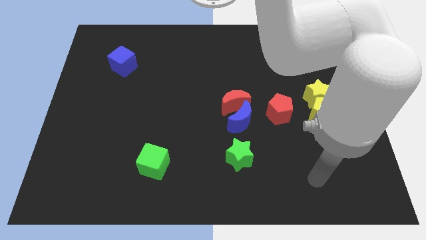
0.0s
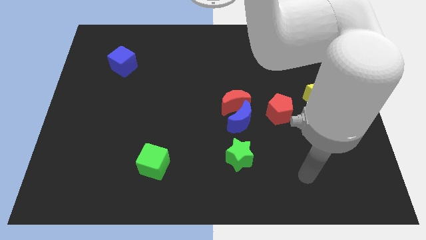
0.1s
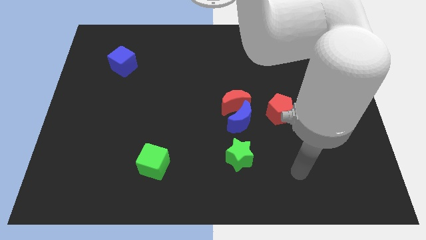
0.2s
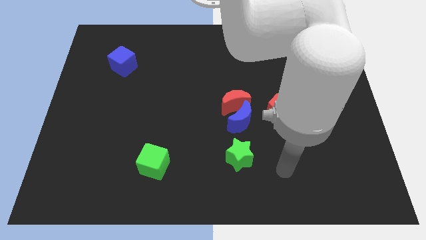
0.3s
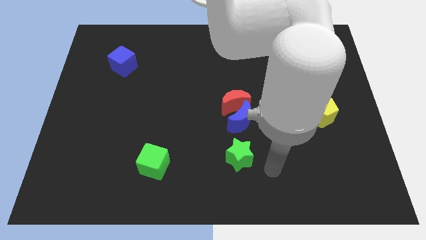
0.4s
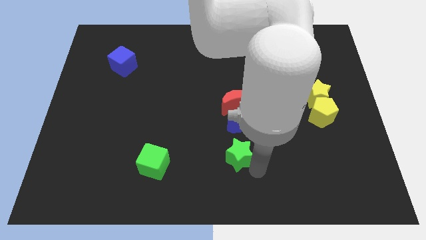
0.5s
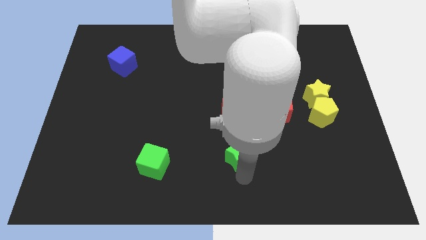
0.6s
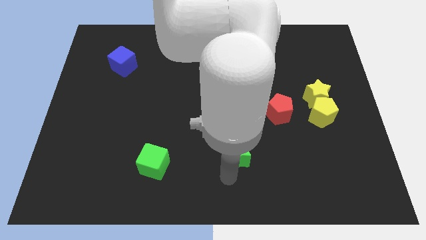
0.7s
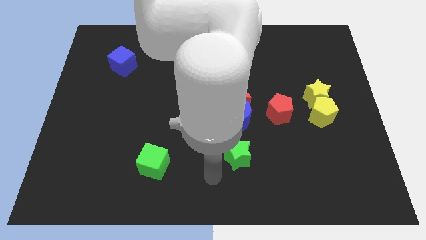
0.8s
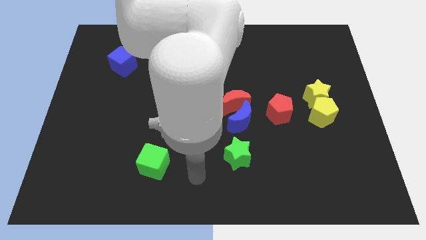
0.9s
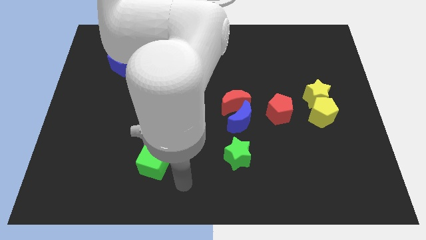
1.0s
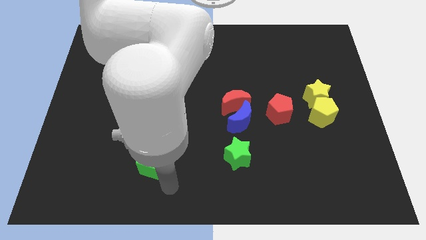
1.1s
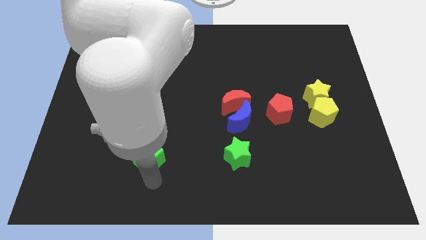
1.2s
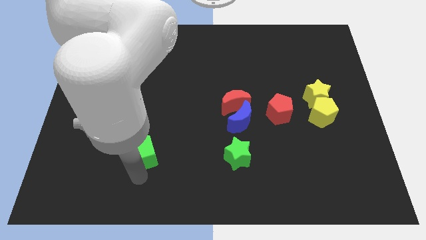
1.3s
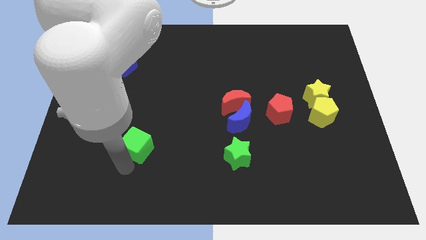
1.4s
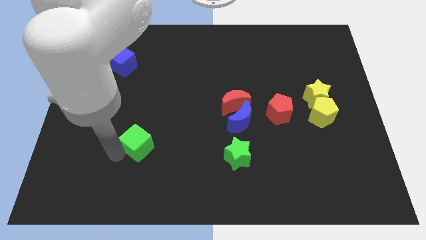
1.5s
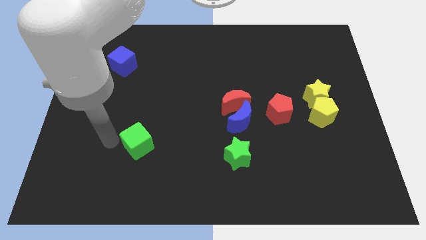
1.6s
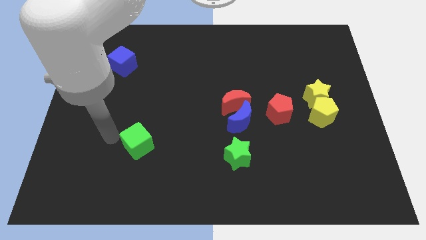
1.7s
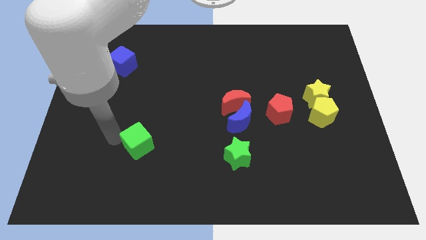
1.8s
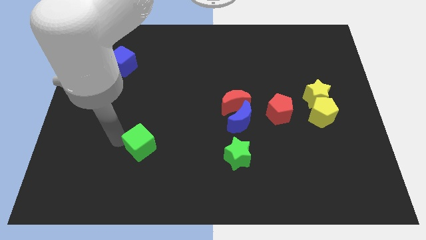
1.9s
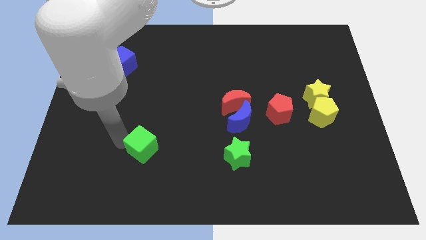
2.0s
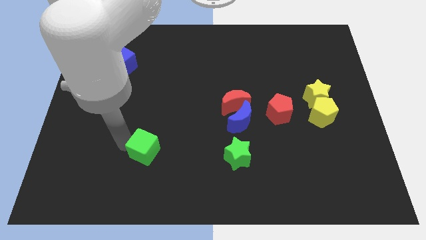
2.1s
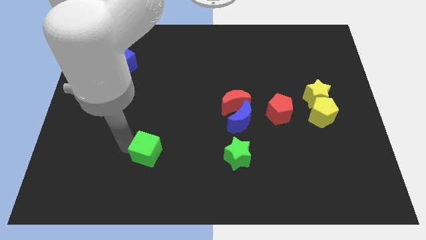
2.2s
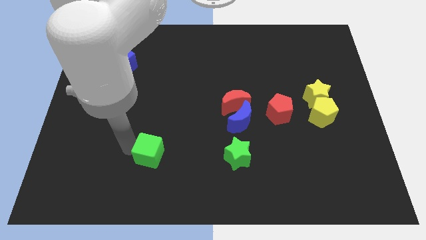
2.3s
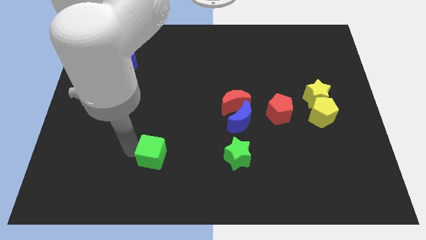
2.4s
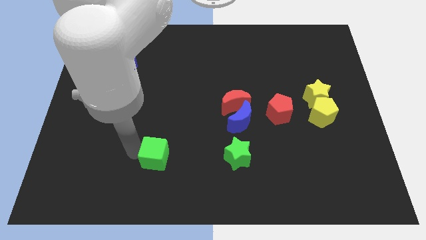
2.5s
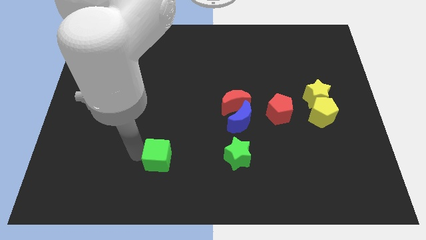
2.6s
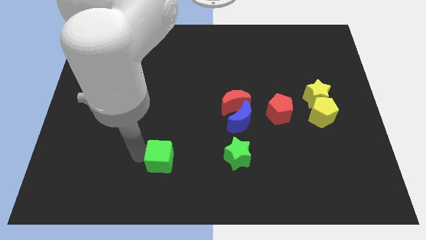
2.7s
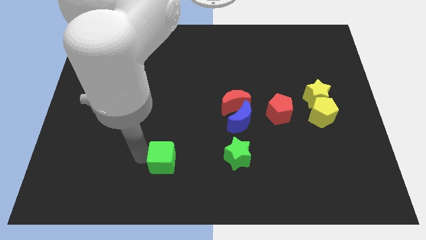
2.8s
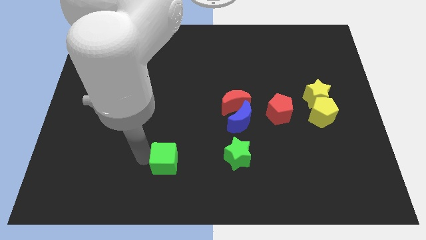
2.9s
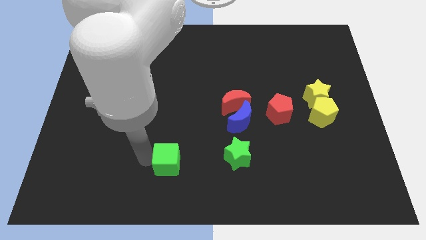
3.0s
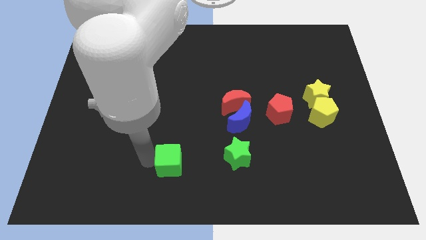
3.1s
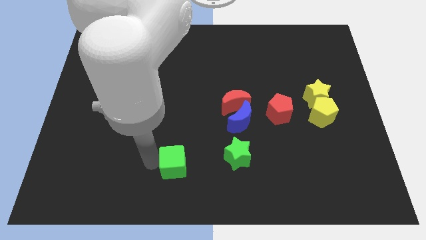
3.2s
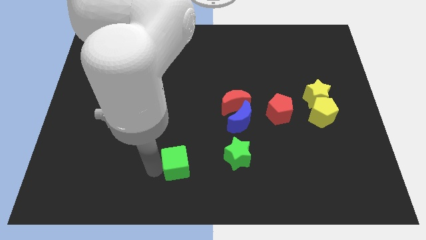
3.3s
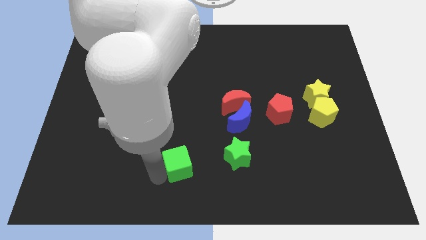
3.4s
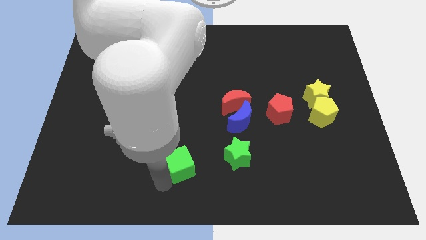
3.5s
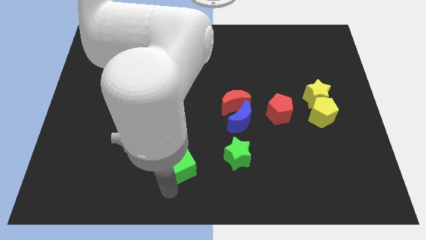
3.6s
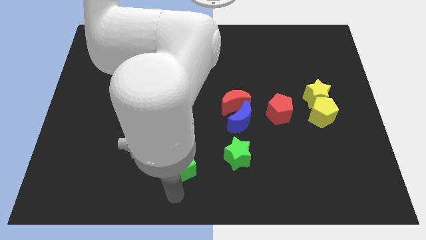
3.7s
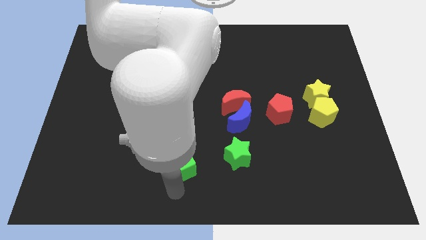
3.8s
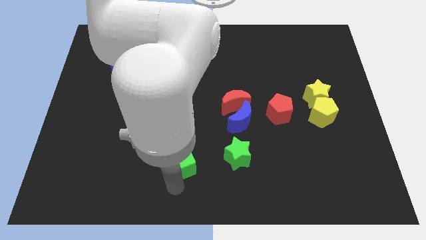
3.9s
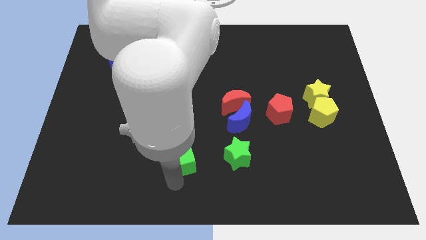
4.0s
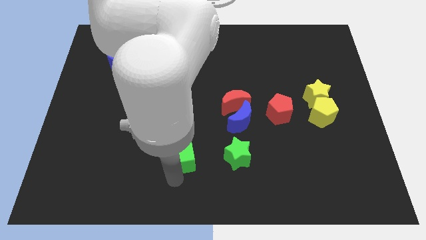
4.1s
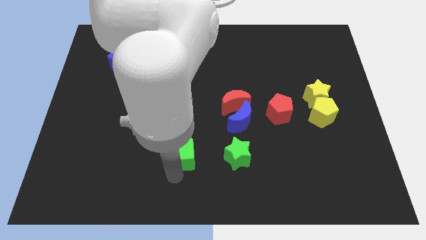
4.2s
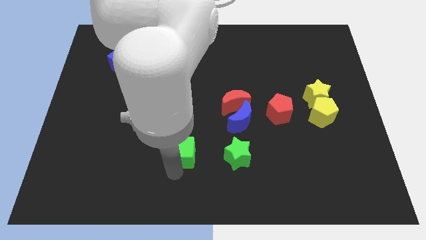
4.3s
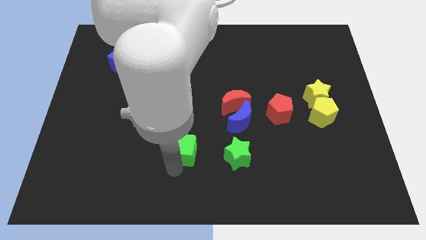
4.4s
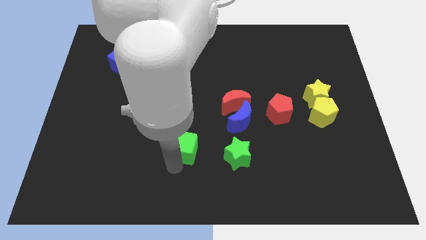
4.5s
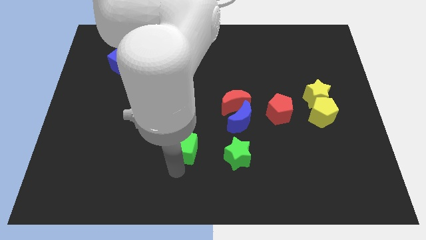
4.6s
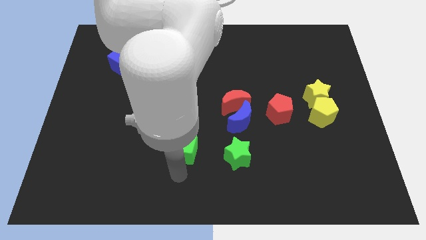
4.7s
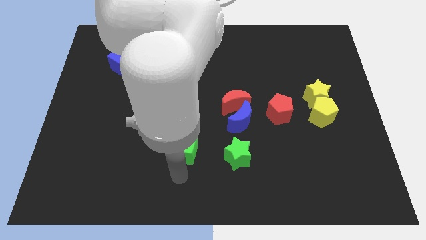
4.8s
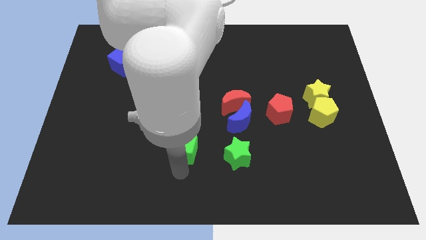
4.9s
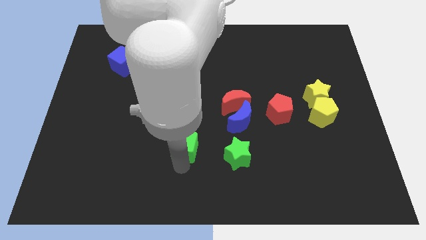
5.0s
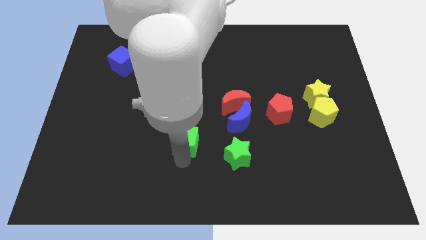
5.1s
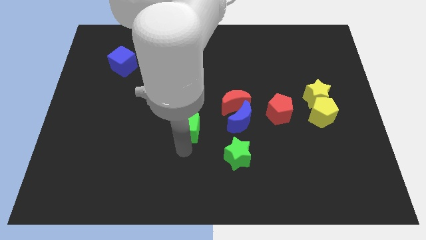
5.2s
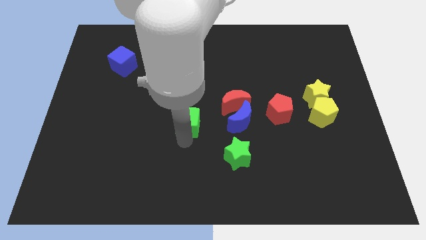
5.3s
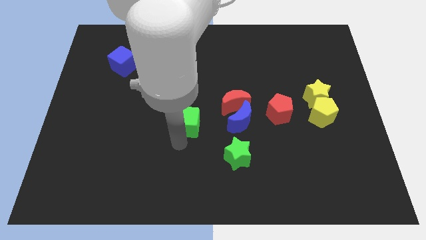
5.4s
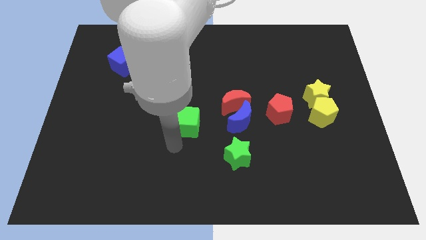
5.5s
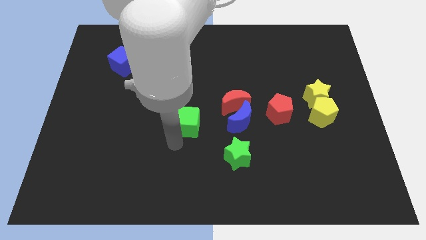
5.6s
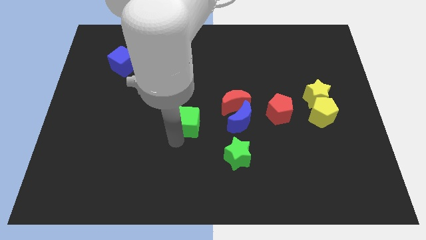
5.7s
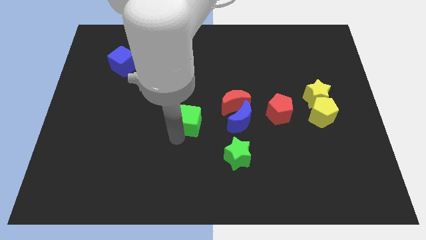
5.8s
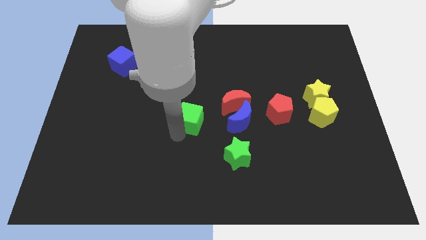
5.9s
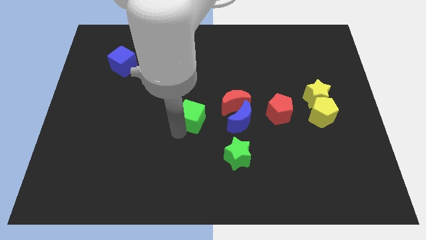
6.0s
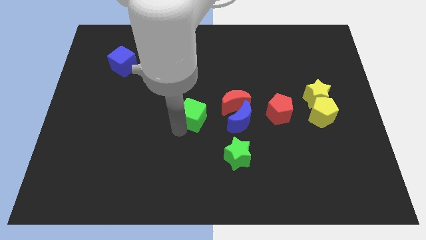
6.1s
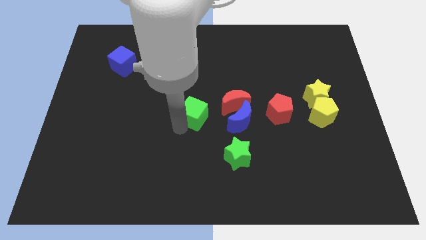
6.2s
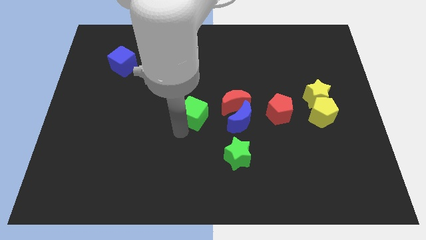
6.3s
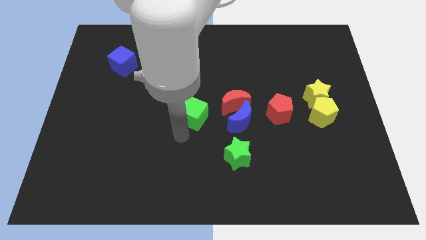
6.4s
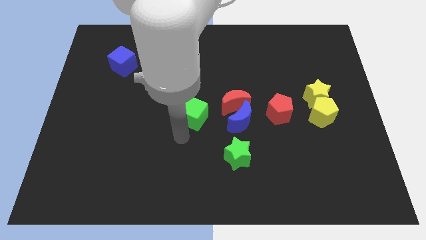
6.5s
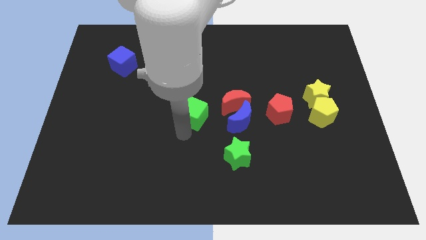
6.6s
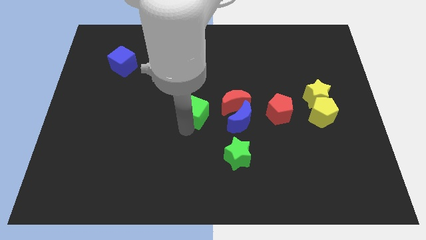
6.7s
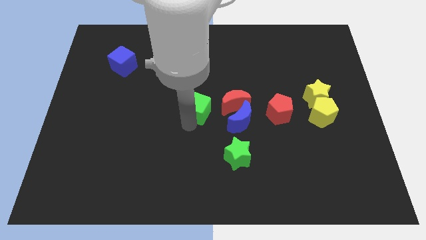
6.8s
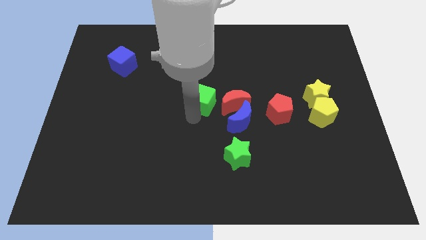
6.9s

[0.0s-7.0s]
push the green cube diagonally up and to the left of the red moon

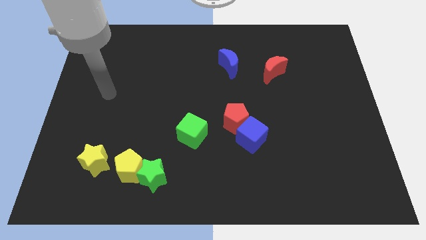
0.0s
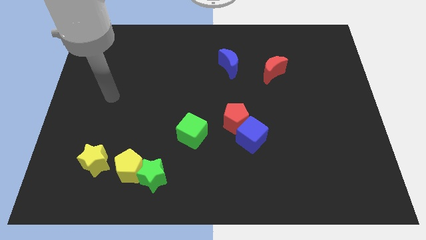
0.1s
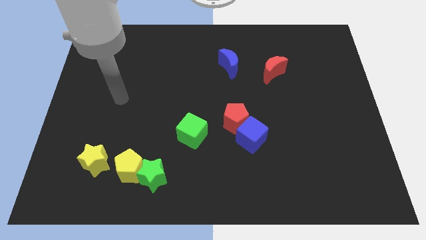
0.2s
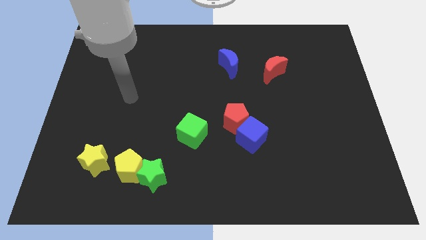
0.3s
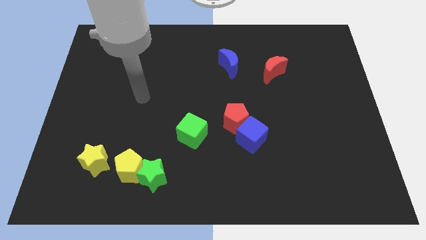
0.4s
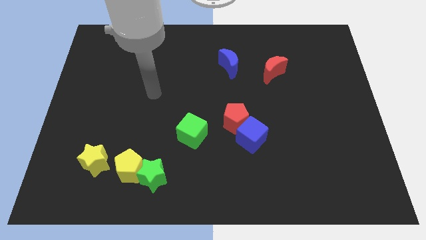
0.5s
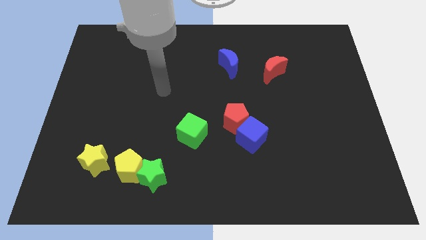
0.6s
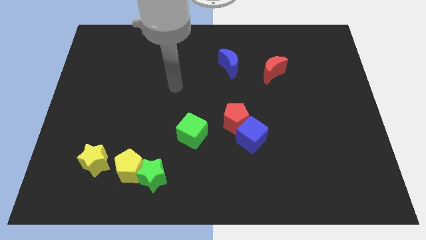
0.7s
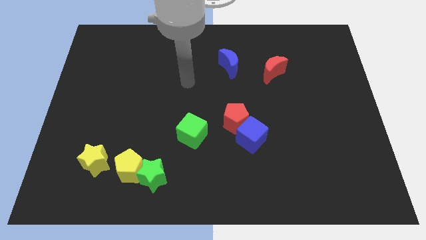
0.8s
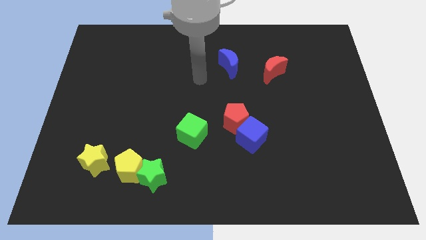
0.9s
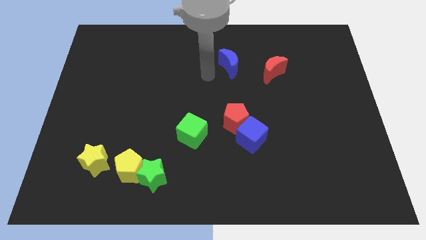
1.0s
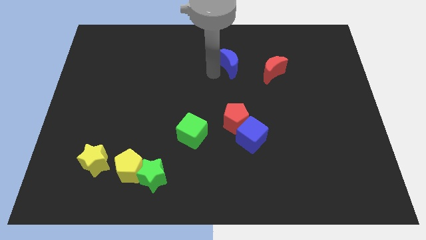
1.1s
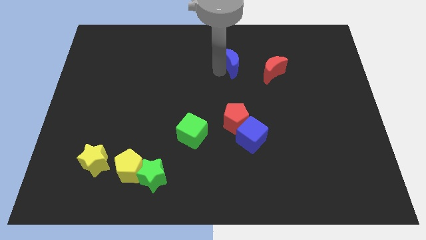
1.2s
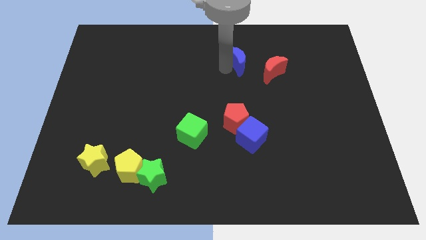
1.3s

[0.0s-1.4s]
push the blue moon diagonally up and to the left of the red moon

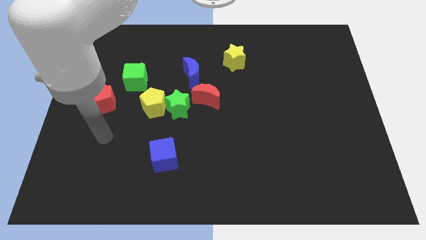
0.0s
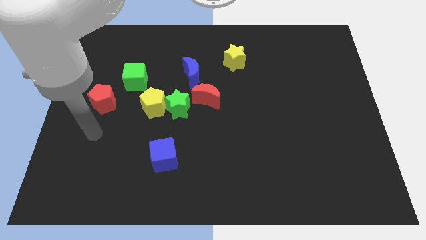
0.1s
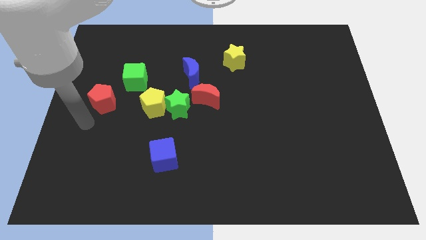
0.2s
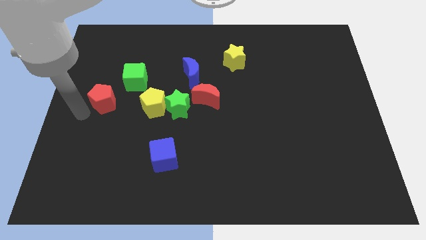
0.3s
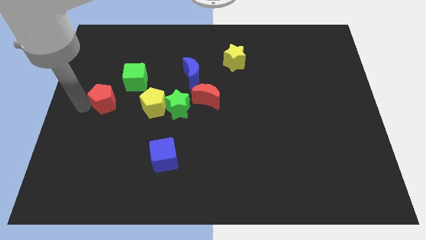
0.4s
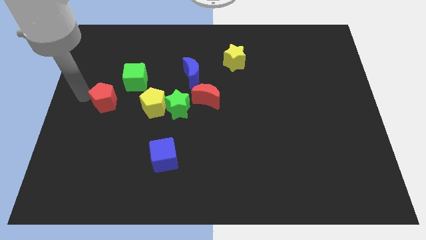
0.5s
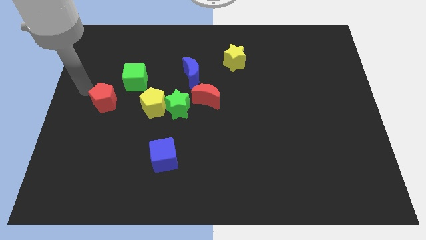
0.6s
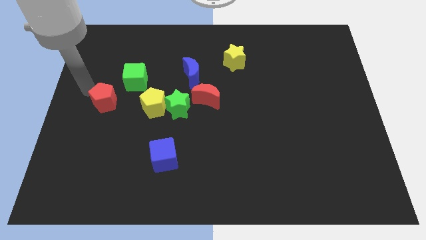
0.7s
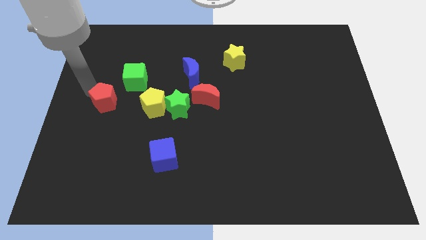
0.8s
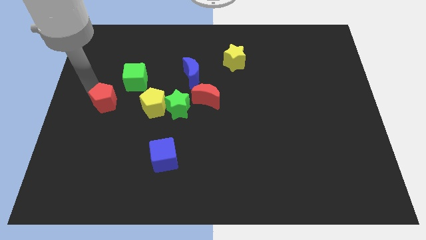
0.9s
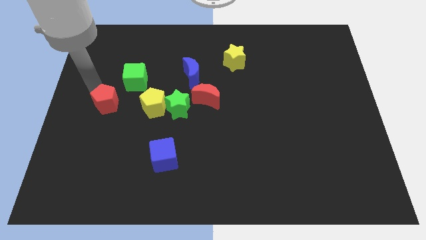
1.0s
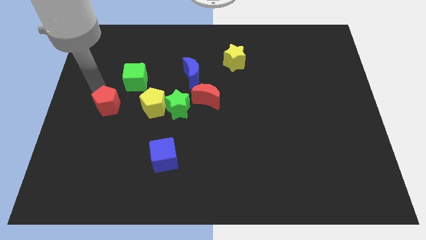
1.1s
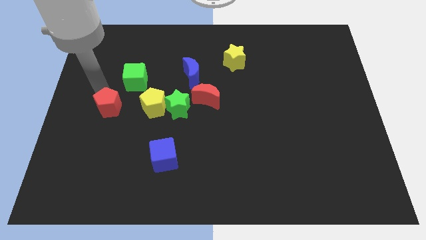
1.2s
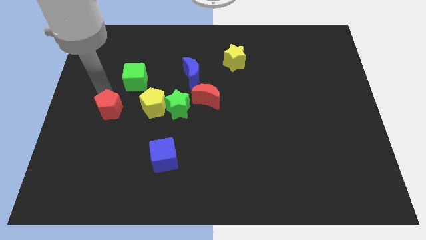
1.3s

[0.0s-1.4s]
push the red pentagon to the bottom of the green cube
